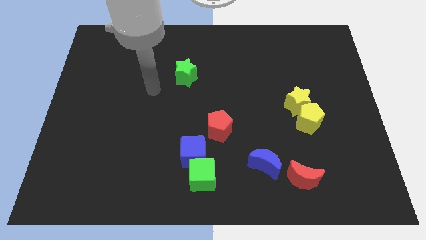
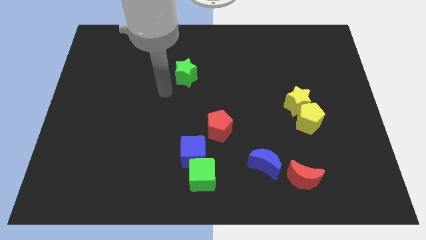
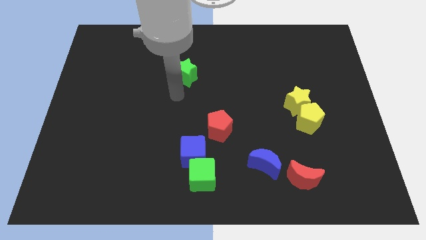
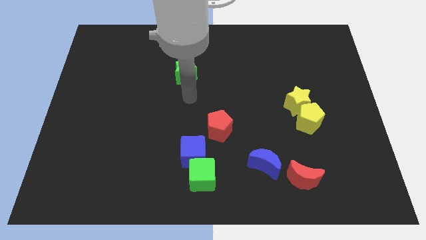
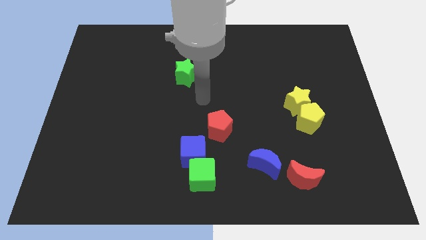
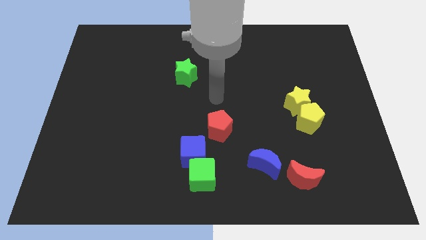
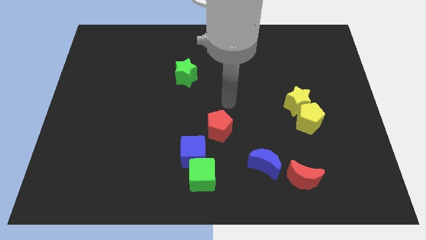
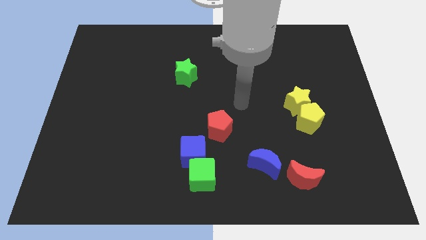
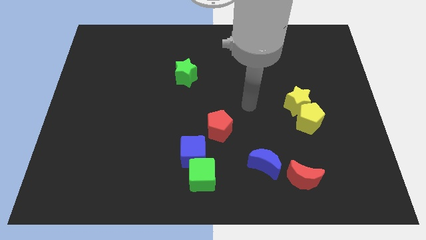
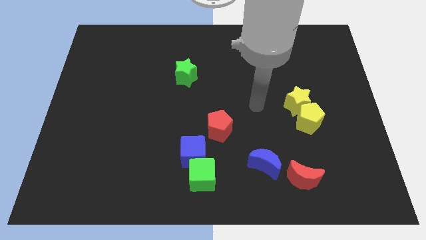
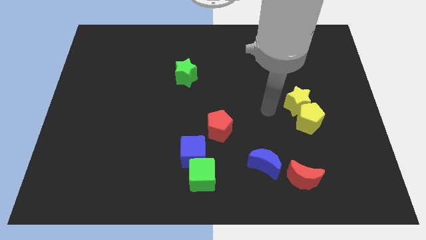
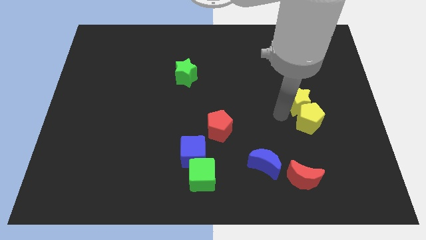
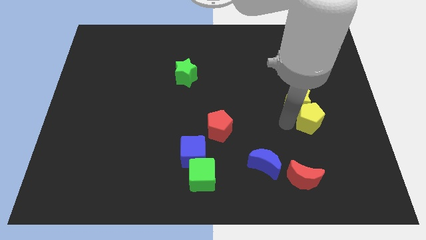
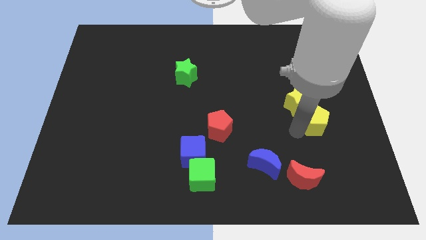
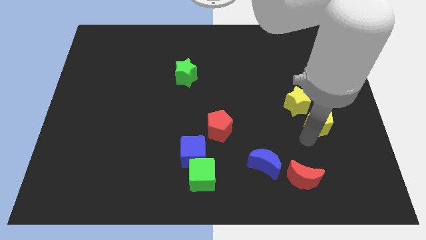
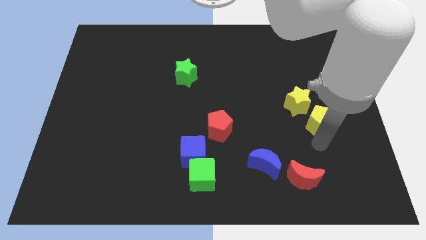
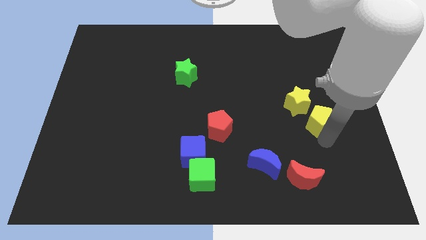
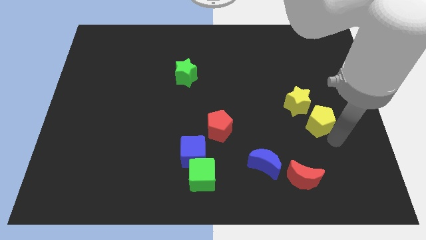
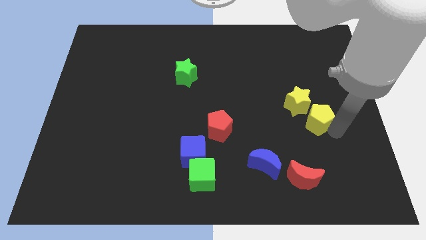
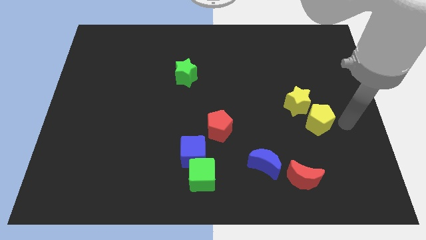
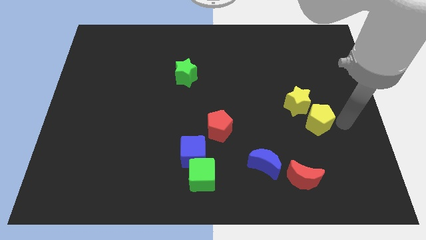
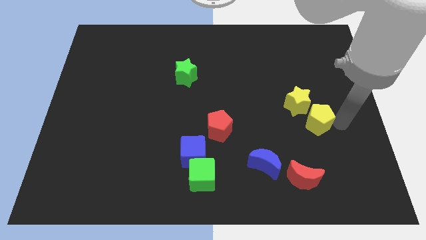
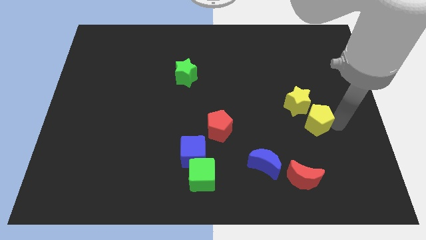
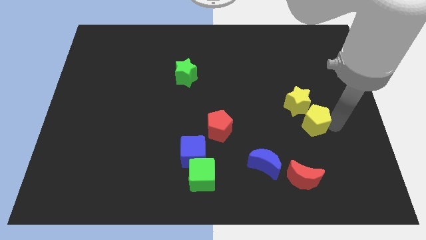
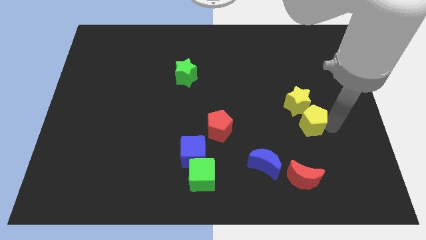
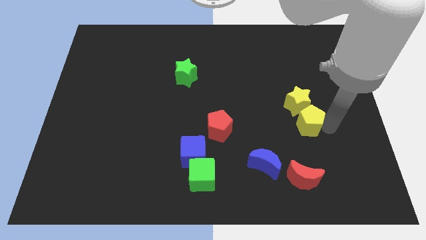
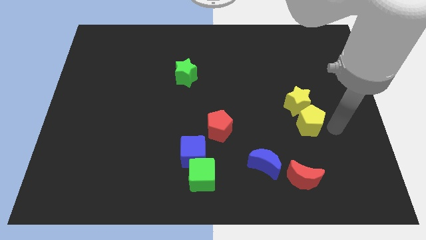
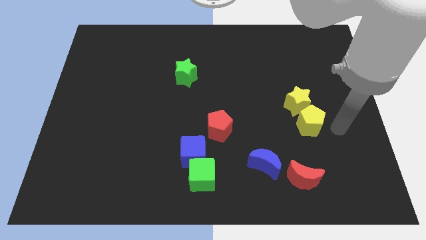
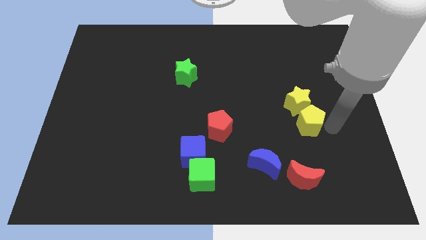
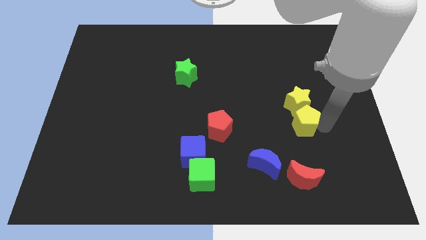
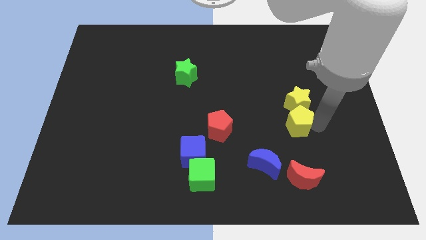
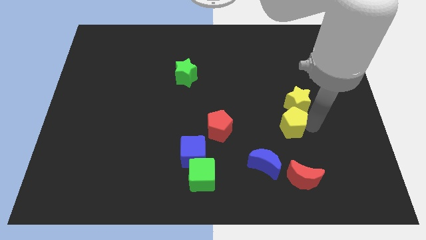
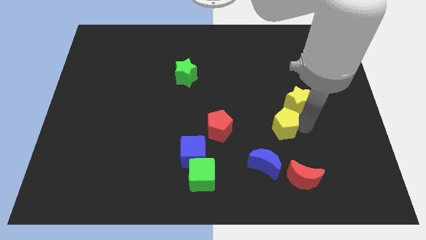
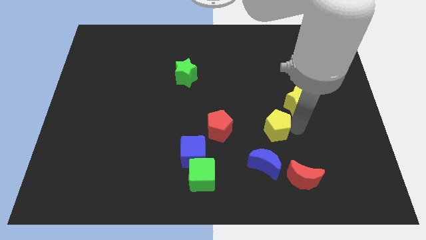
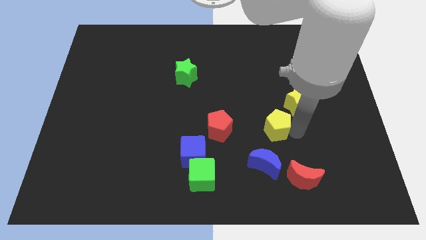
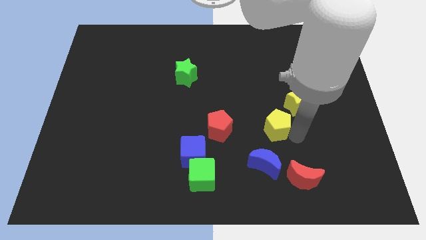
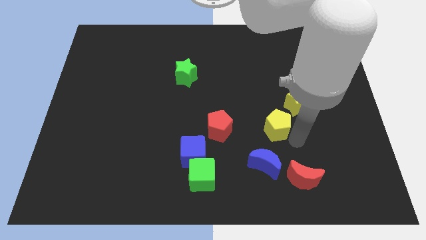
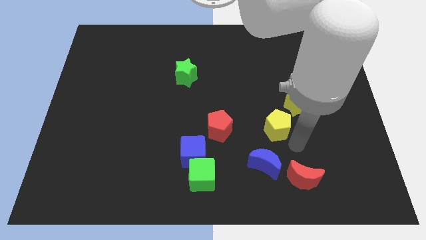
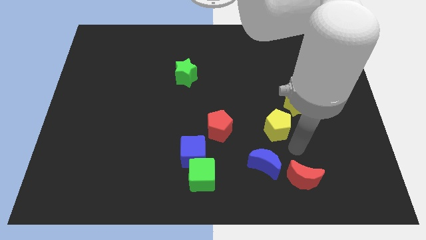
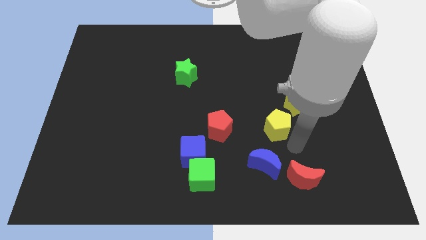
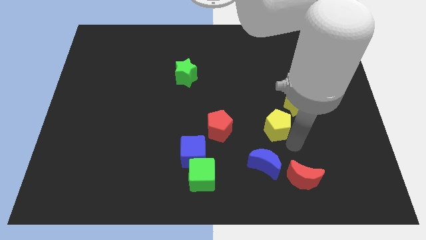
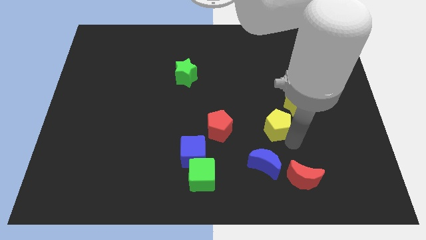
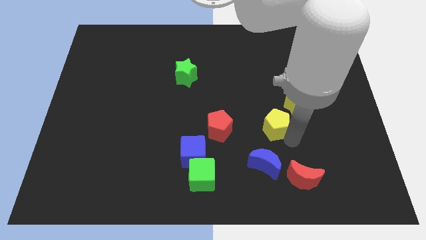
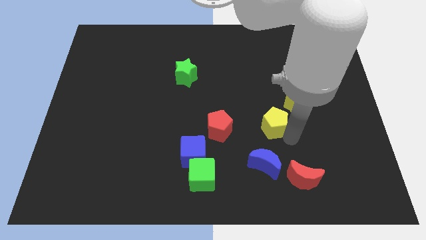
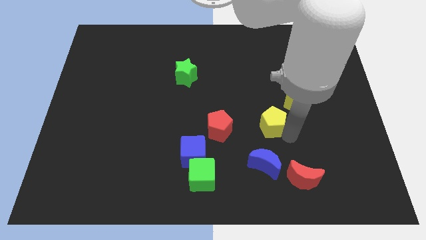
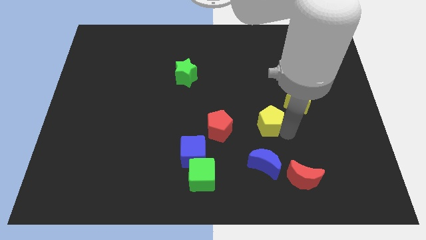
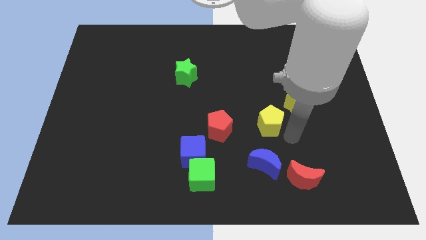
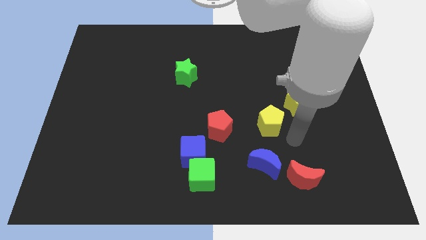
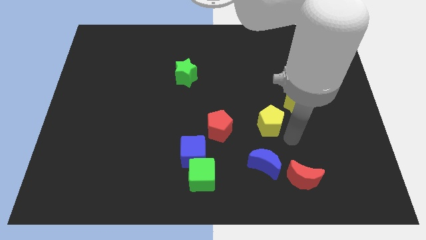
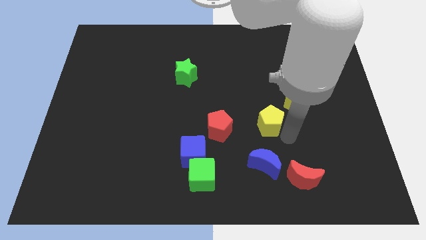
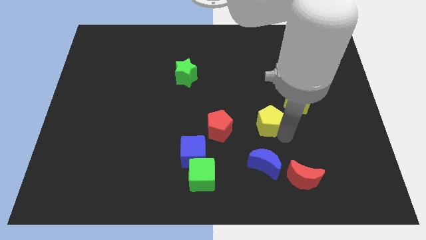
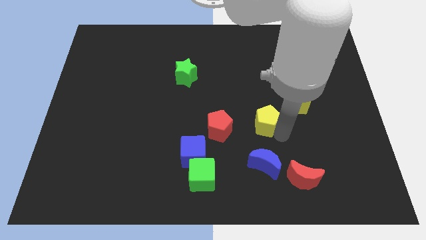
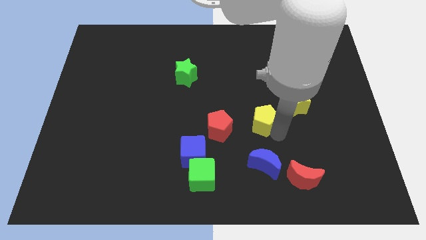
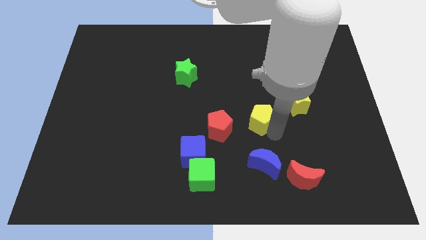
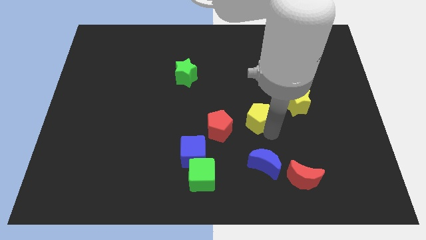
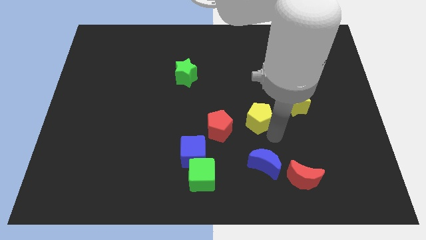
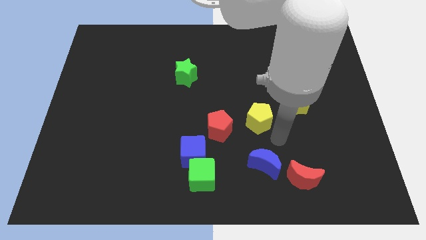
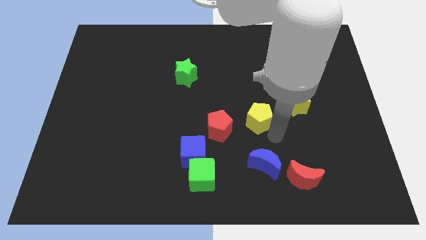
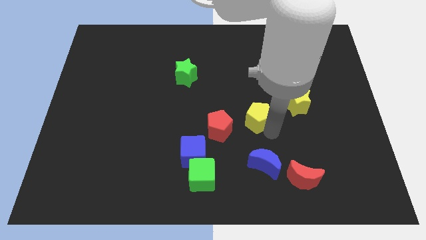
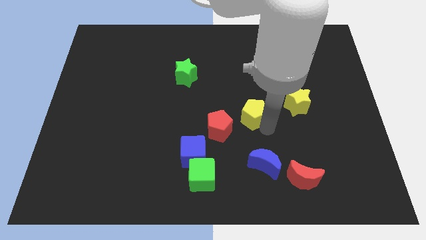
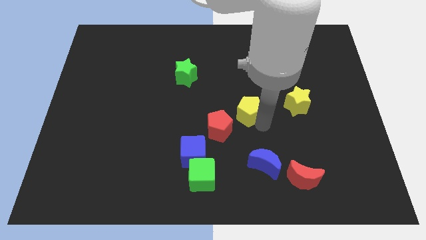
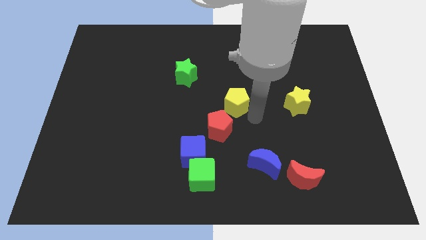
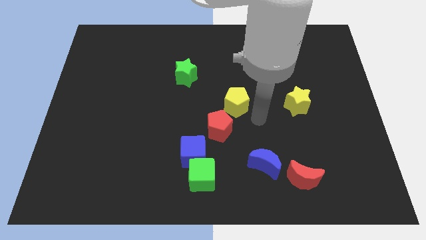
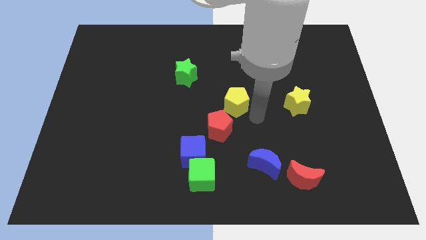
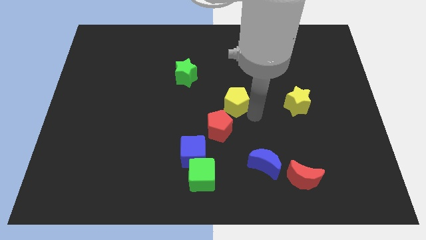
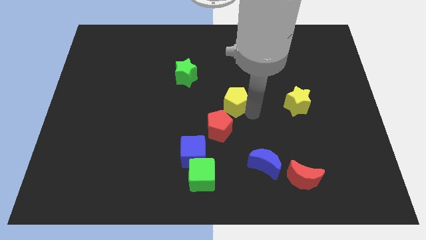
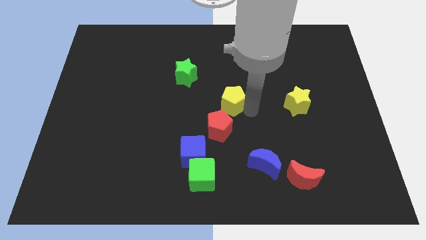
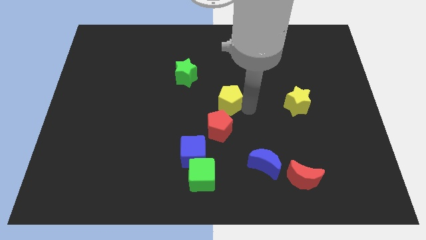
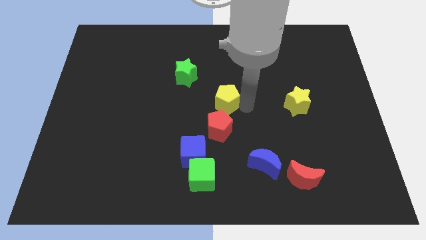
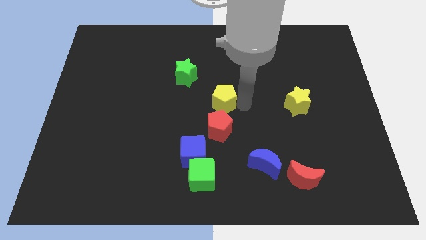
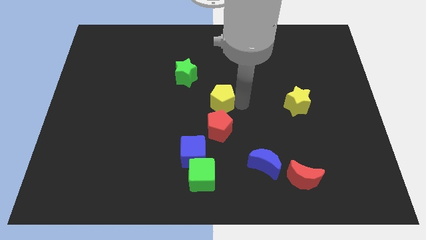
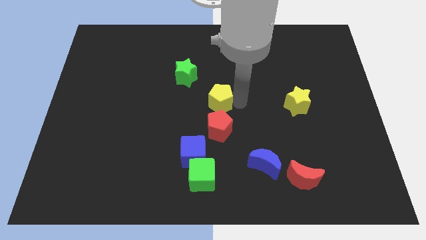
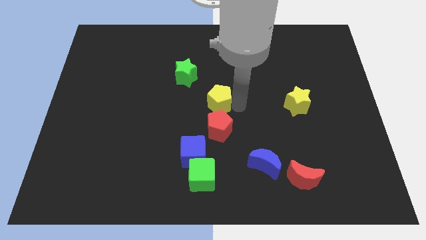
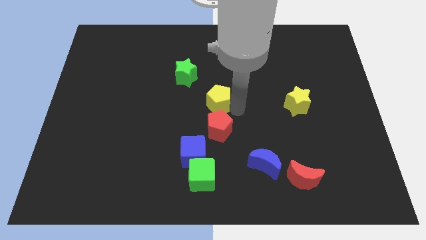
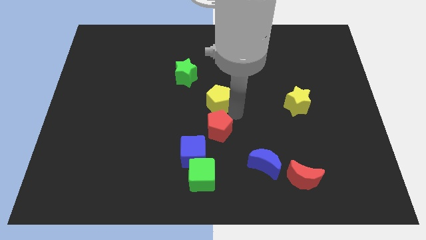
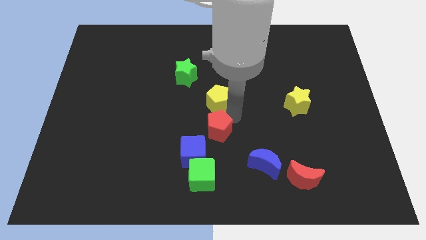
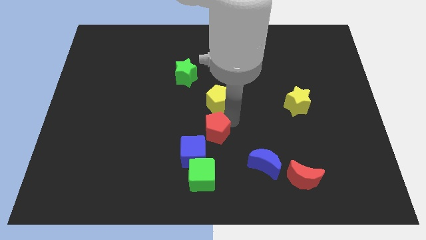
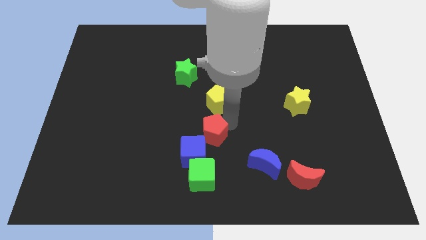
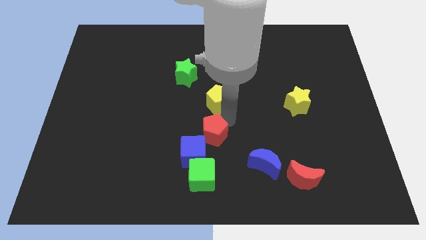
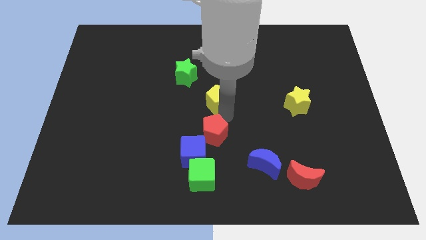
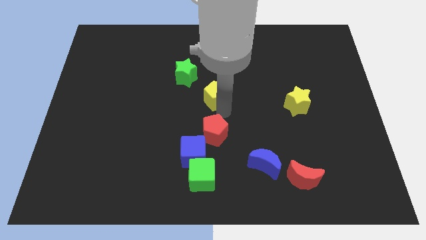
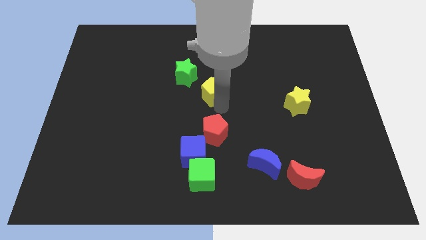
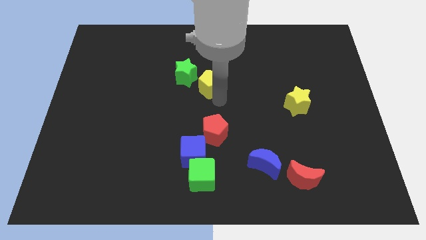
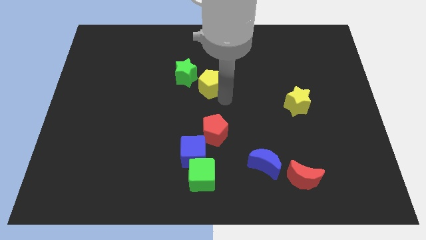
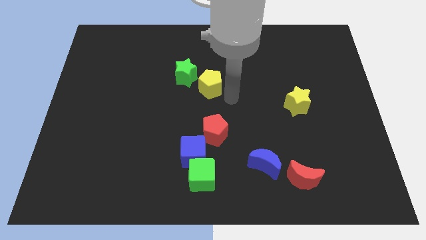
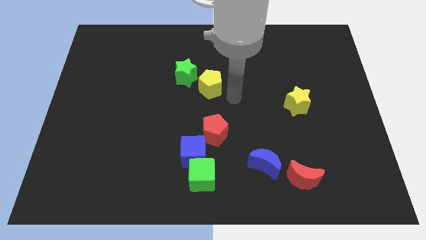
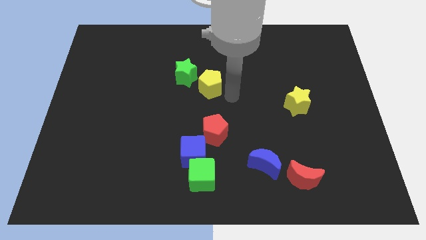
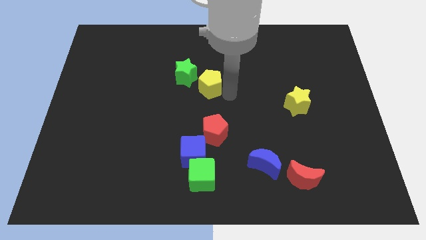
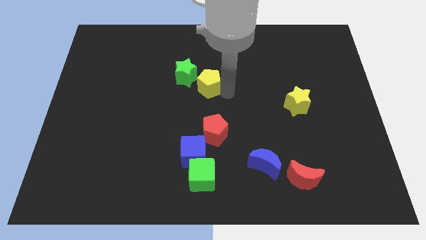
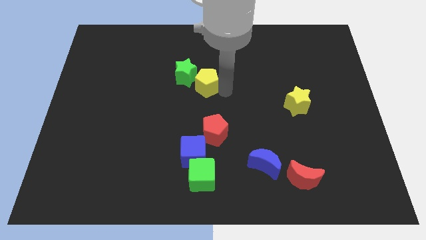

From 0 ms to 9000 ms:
slide the yellow pentagon close to the green star
